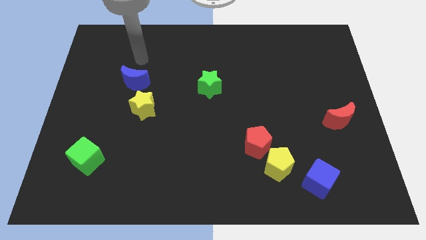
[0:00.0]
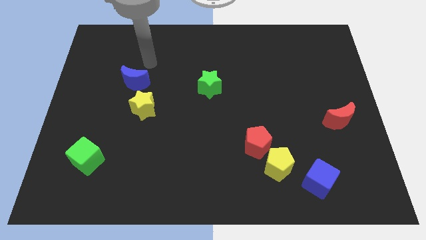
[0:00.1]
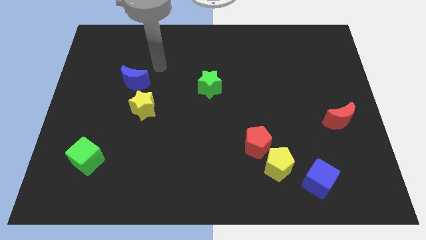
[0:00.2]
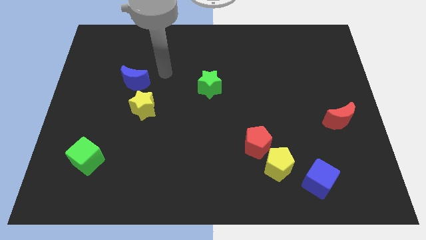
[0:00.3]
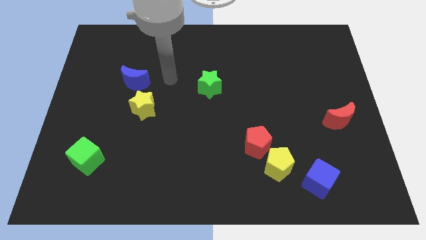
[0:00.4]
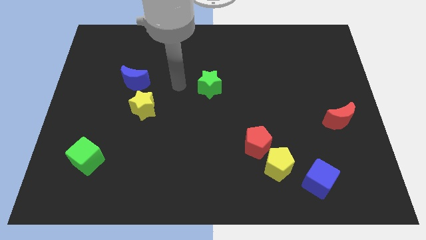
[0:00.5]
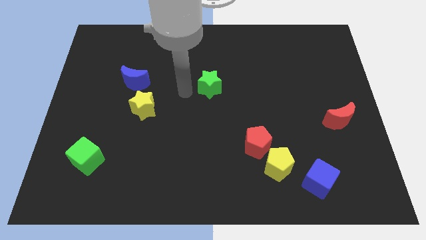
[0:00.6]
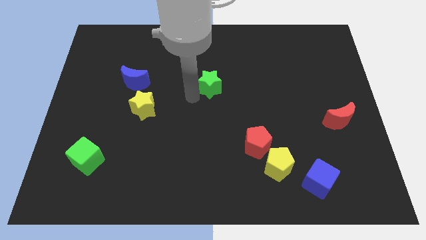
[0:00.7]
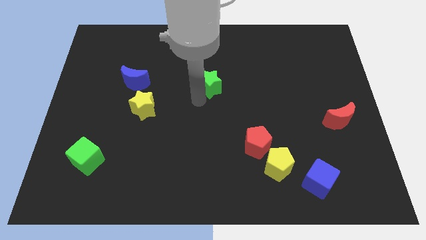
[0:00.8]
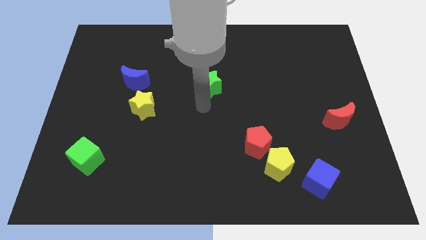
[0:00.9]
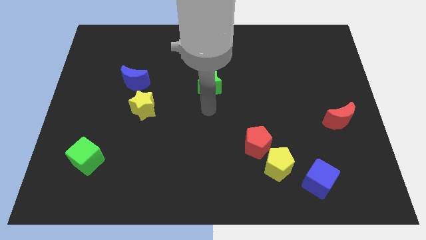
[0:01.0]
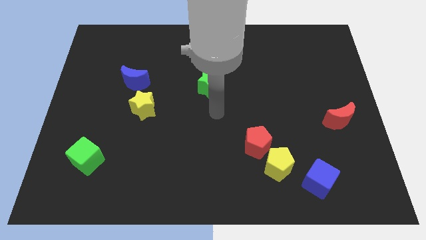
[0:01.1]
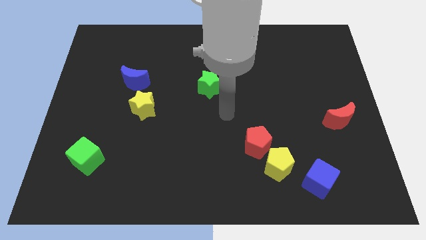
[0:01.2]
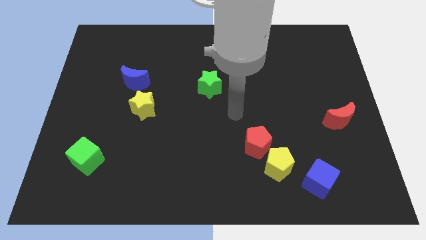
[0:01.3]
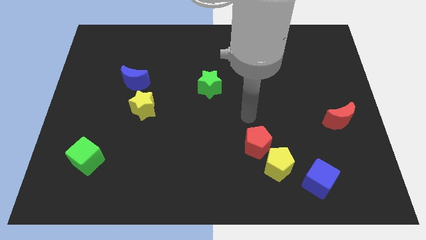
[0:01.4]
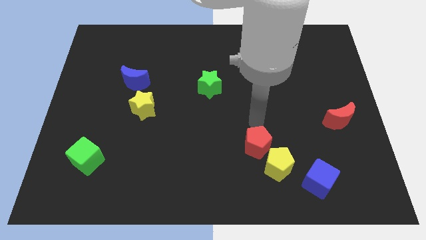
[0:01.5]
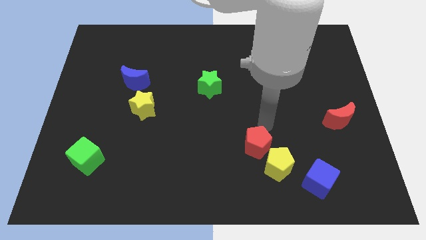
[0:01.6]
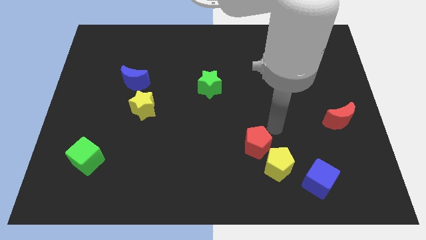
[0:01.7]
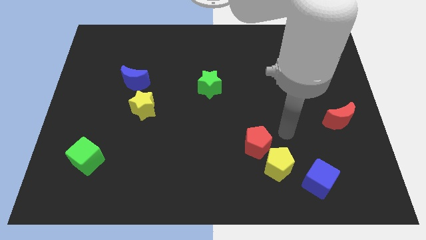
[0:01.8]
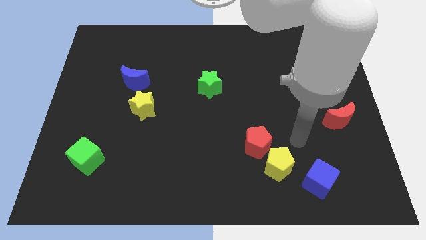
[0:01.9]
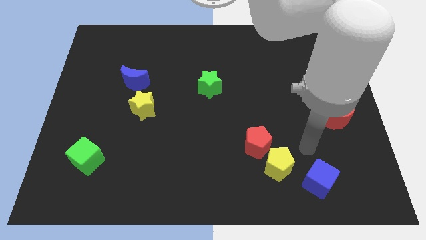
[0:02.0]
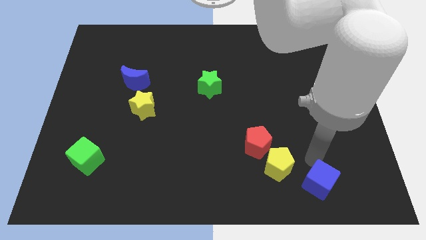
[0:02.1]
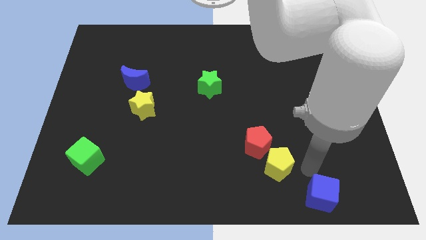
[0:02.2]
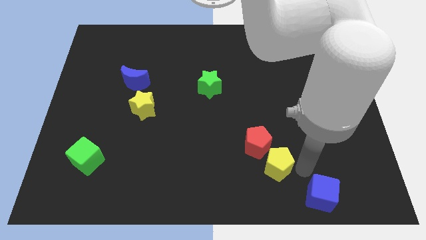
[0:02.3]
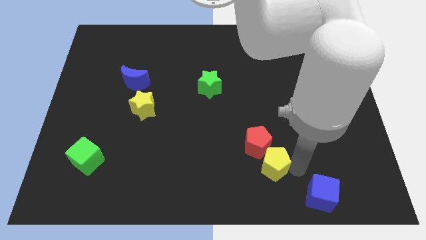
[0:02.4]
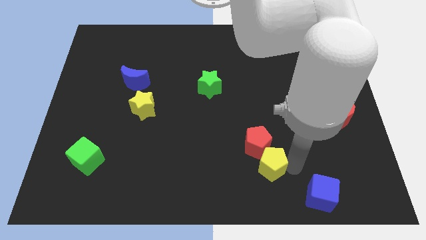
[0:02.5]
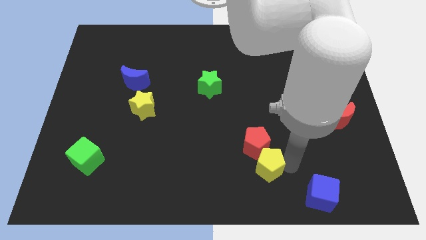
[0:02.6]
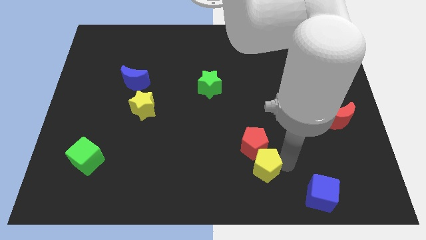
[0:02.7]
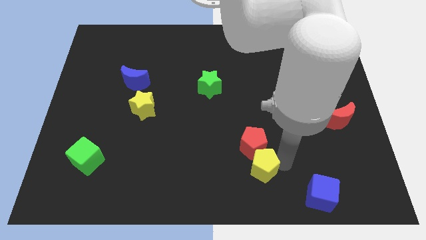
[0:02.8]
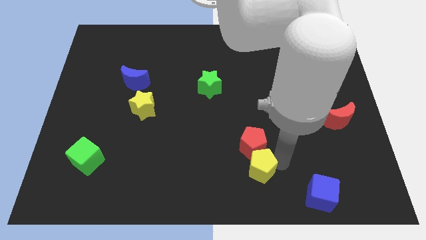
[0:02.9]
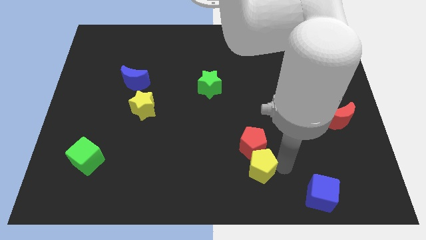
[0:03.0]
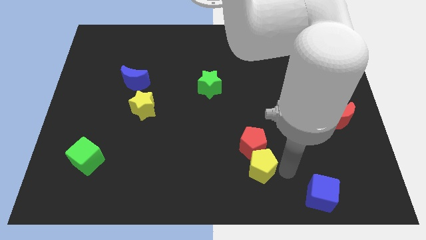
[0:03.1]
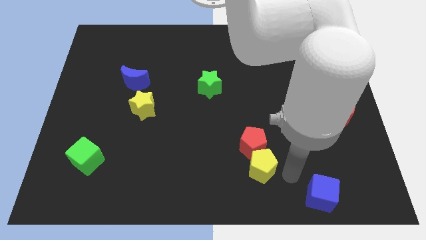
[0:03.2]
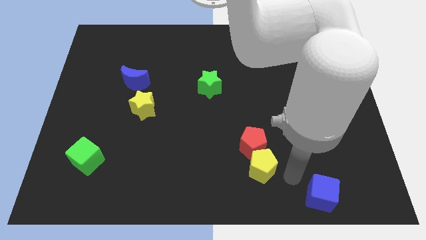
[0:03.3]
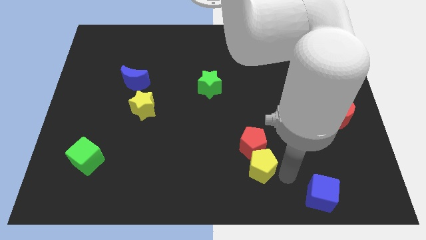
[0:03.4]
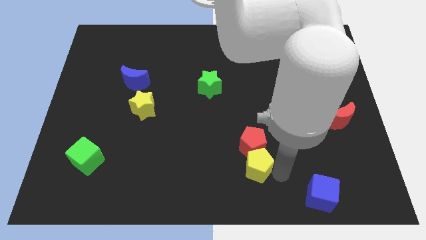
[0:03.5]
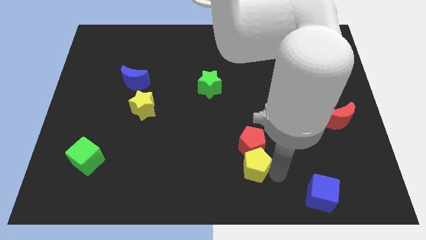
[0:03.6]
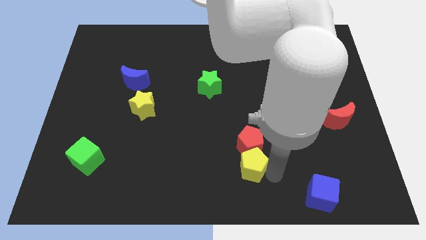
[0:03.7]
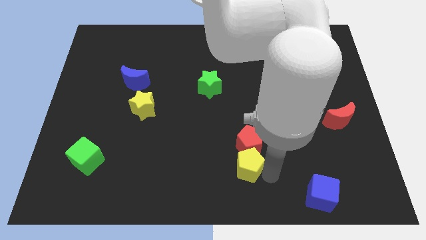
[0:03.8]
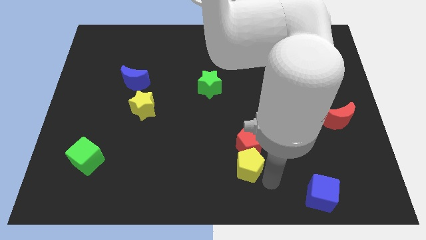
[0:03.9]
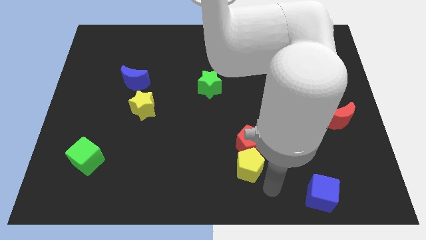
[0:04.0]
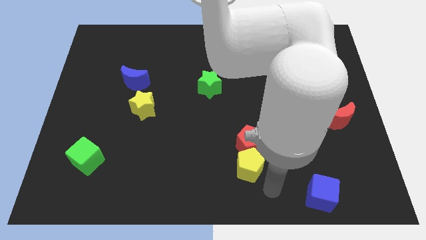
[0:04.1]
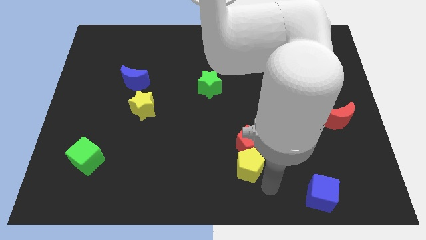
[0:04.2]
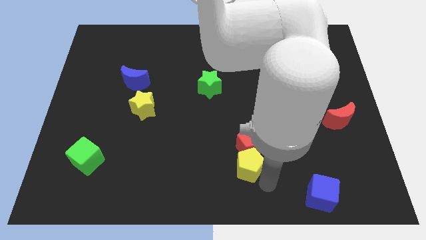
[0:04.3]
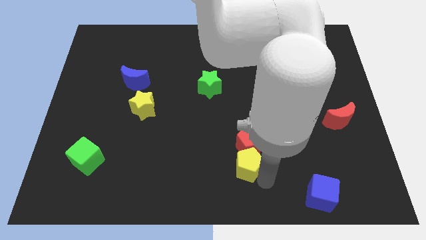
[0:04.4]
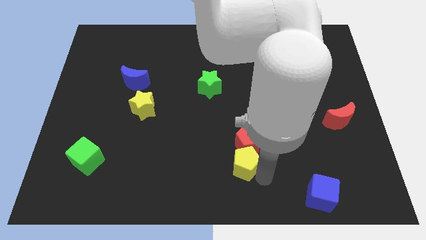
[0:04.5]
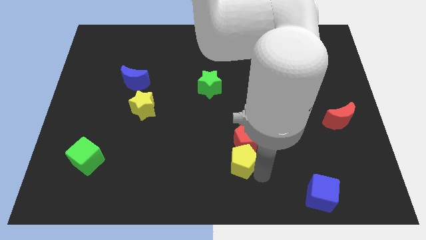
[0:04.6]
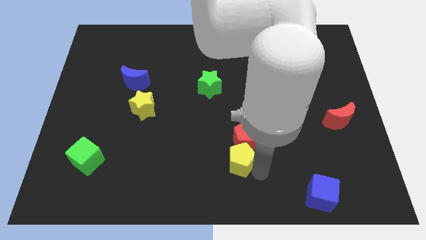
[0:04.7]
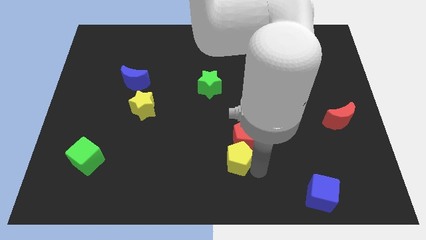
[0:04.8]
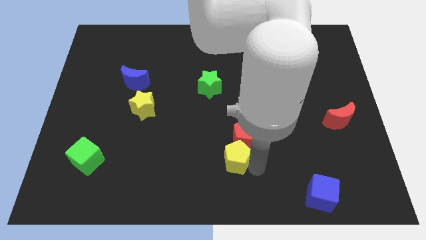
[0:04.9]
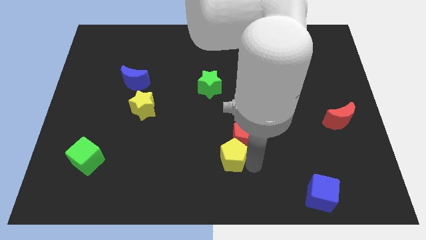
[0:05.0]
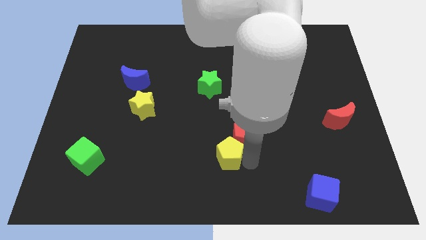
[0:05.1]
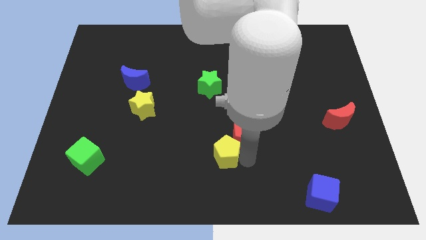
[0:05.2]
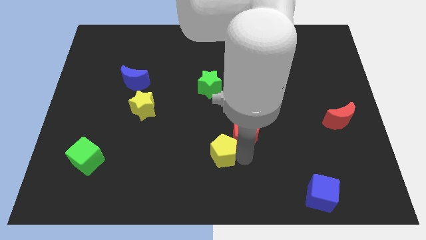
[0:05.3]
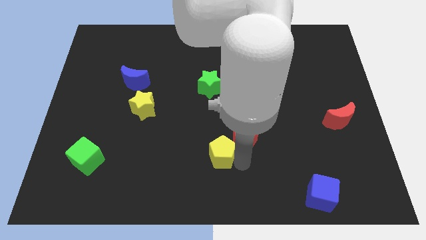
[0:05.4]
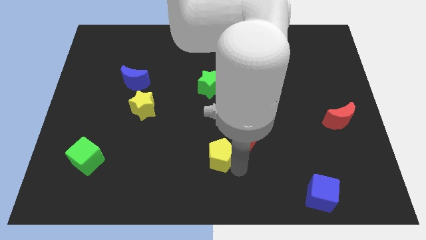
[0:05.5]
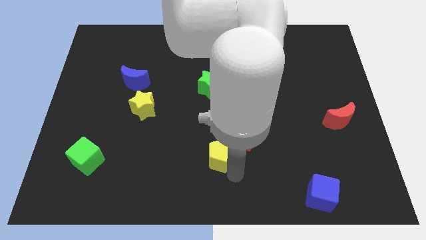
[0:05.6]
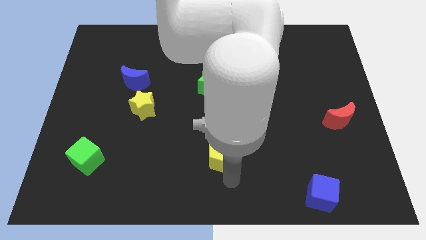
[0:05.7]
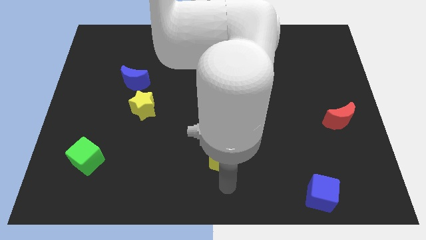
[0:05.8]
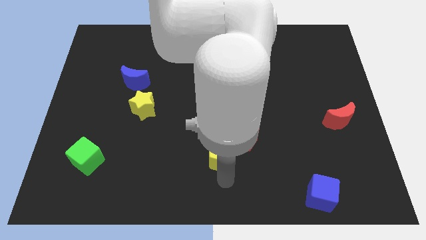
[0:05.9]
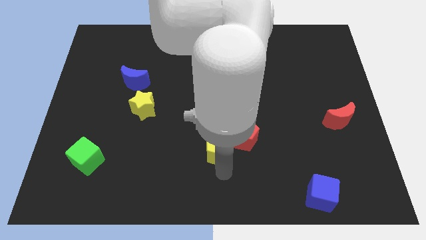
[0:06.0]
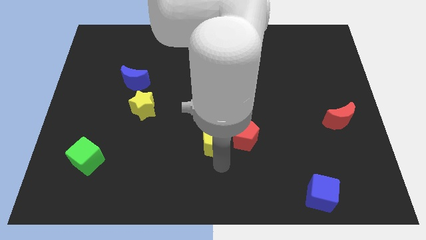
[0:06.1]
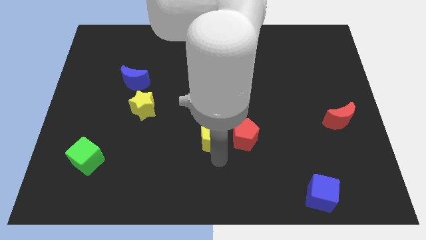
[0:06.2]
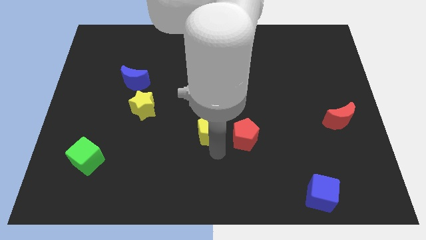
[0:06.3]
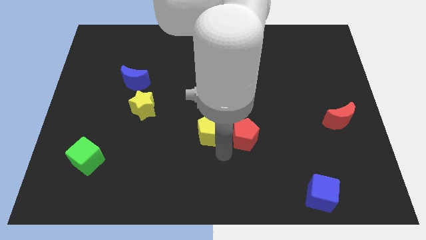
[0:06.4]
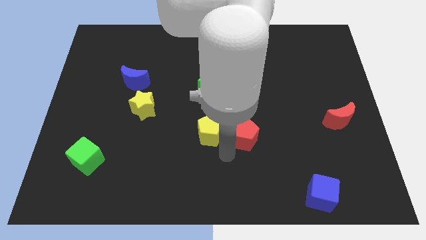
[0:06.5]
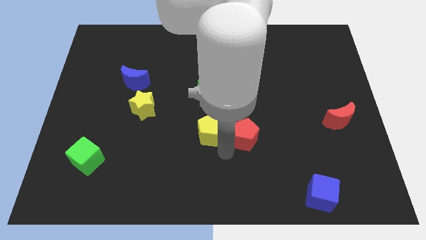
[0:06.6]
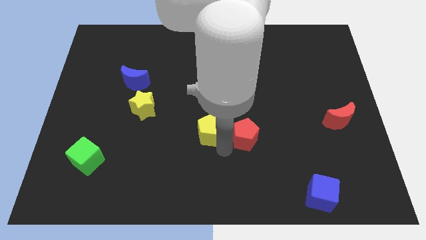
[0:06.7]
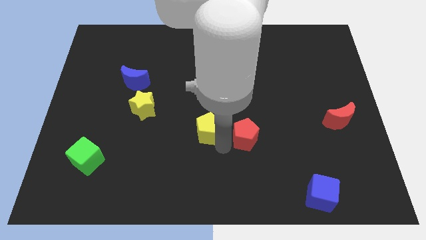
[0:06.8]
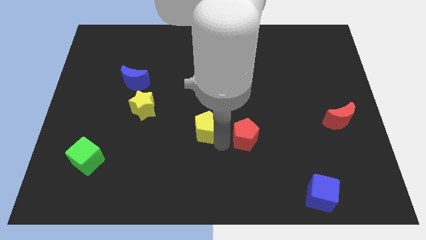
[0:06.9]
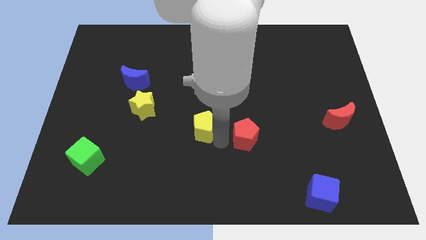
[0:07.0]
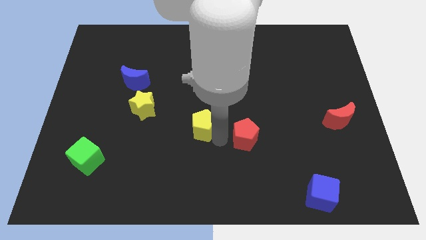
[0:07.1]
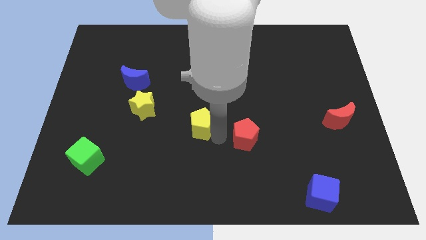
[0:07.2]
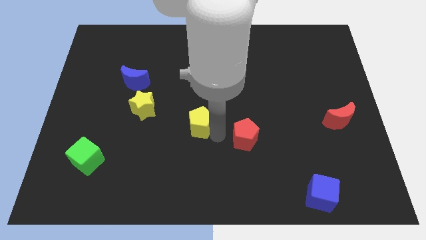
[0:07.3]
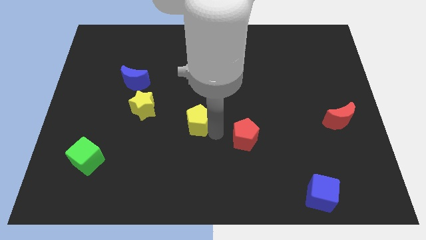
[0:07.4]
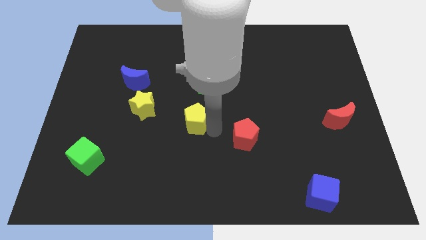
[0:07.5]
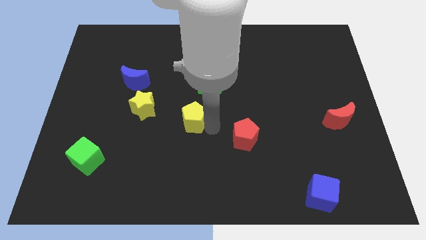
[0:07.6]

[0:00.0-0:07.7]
move the yellow pentagon diagonally up and left
